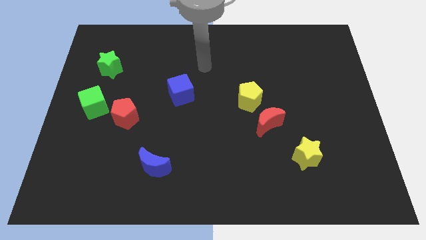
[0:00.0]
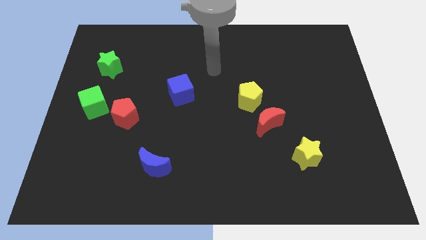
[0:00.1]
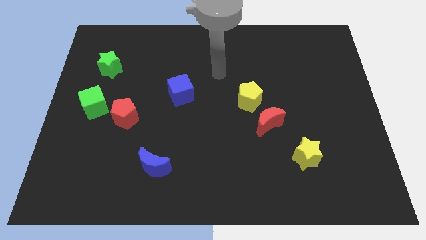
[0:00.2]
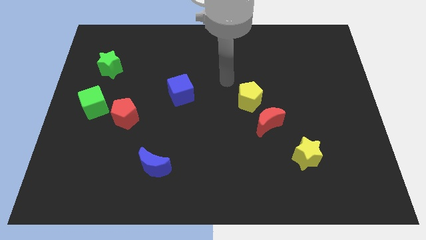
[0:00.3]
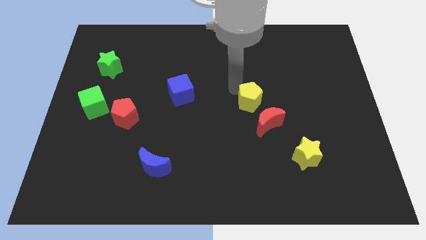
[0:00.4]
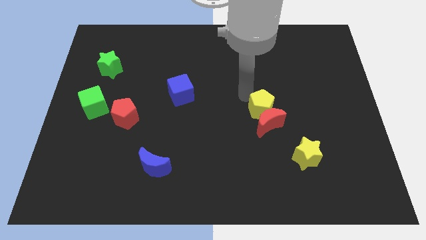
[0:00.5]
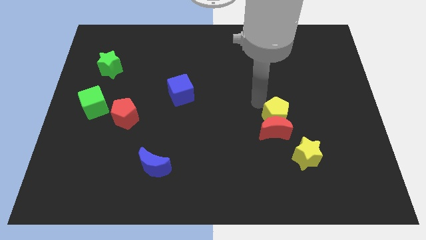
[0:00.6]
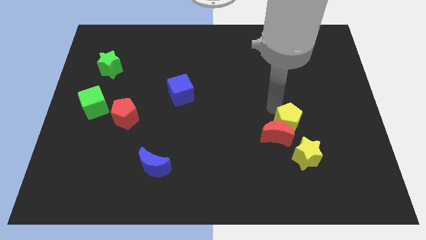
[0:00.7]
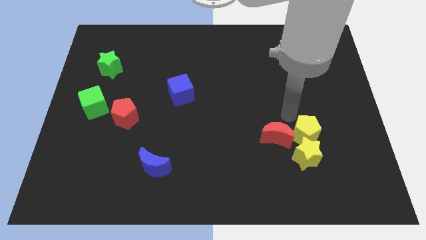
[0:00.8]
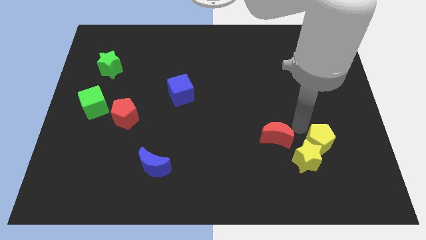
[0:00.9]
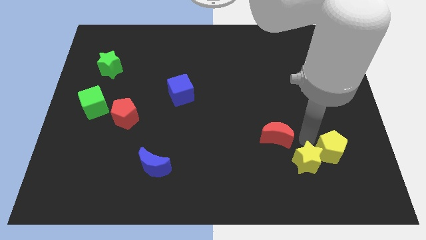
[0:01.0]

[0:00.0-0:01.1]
pull the red moon apart from the yellow pentagon

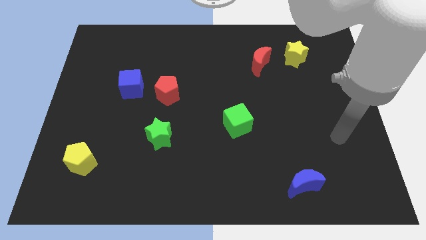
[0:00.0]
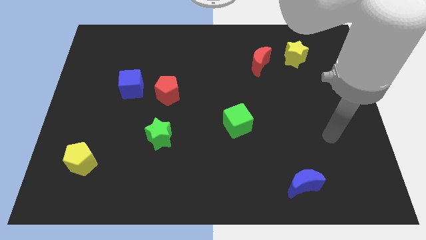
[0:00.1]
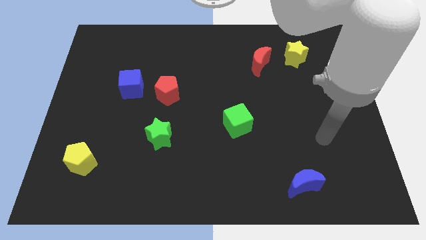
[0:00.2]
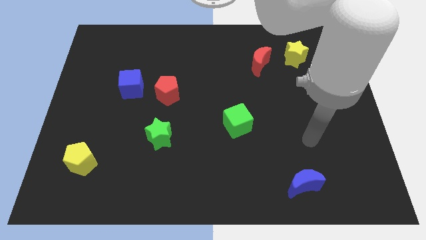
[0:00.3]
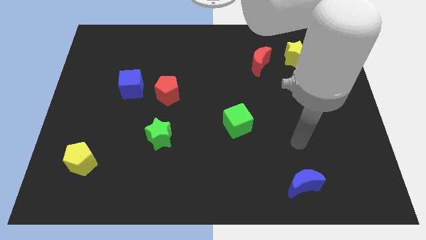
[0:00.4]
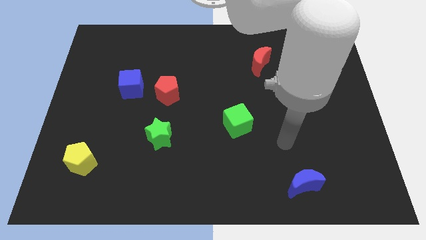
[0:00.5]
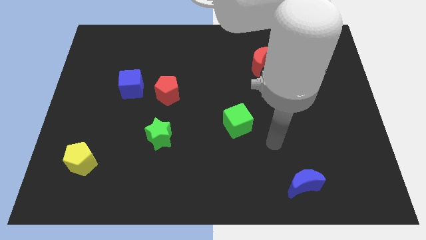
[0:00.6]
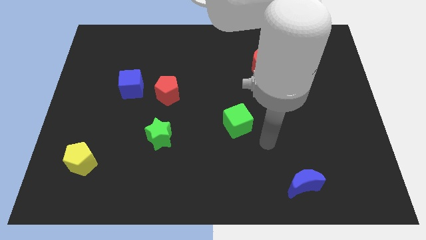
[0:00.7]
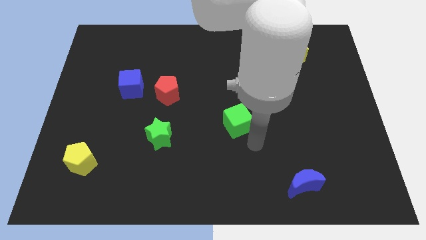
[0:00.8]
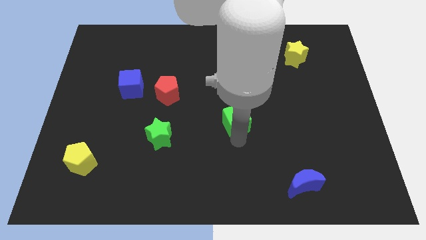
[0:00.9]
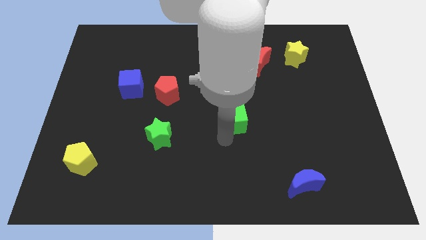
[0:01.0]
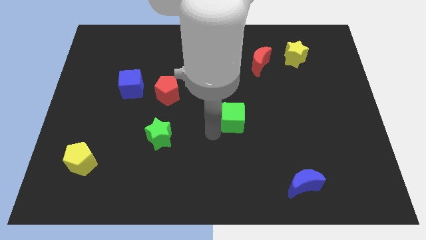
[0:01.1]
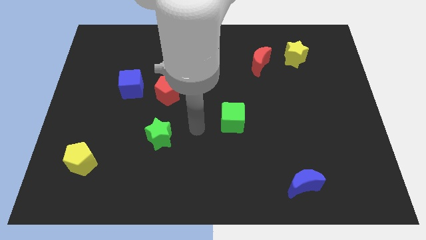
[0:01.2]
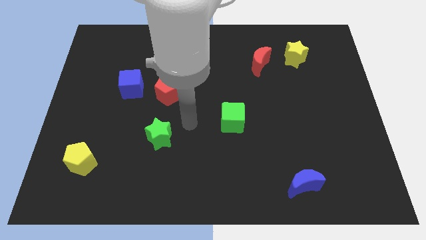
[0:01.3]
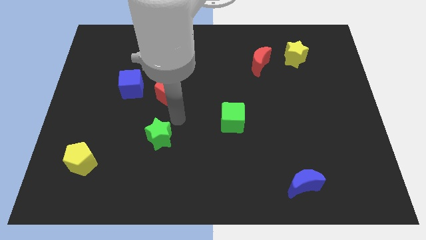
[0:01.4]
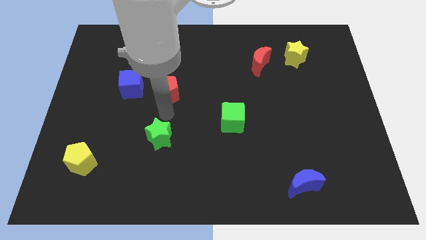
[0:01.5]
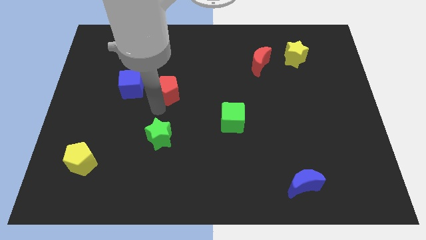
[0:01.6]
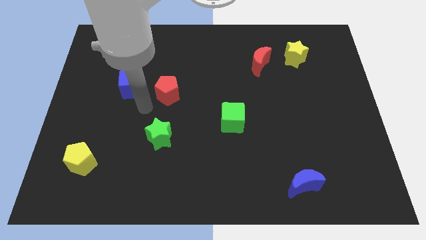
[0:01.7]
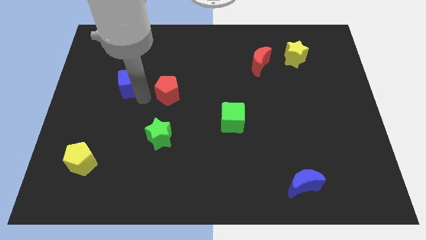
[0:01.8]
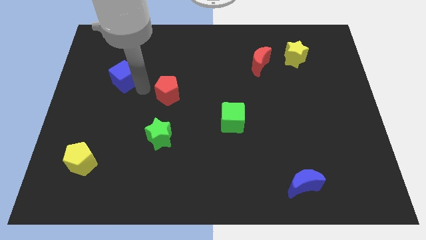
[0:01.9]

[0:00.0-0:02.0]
separate the red pentagon from the blue cube

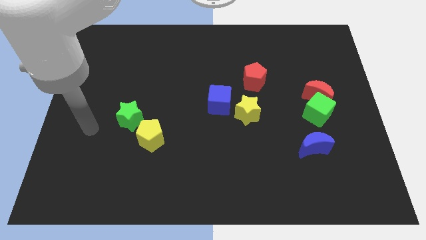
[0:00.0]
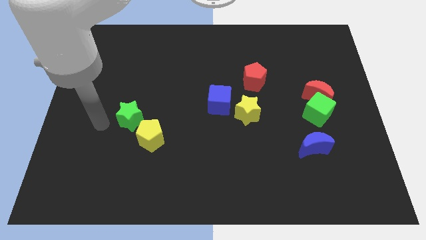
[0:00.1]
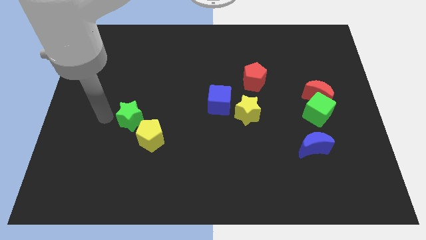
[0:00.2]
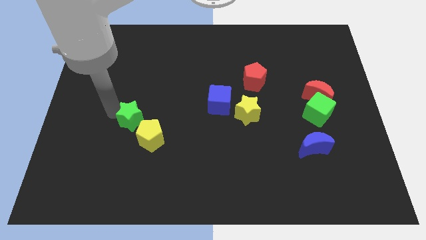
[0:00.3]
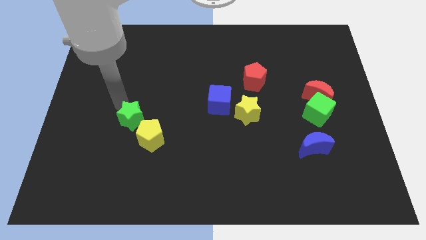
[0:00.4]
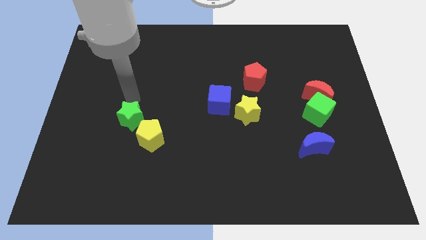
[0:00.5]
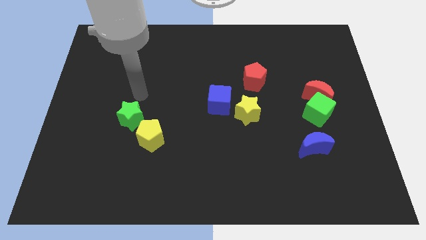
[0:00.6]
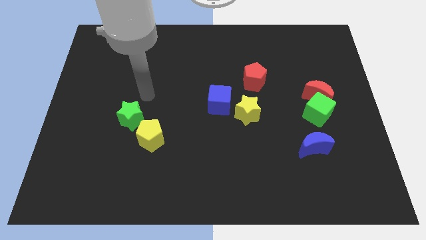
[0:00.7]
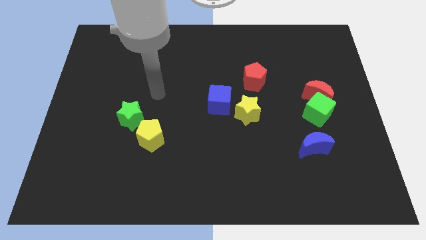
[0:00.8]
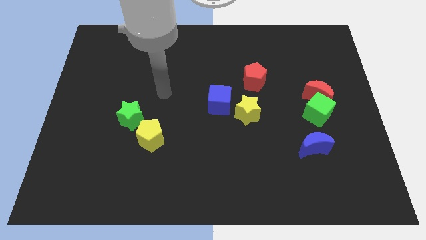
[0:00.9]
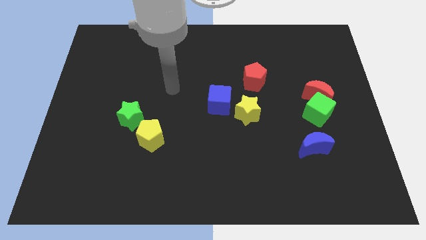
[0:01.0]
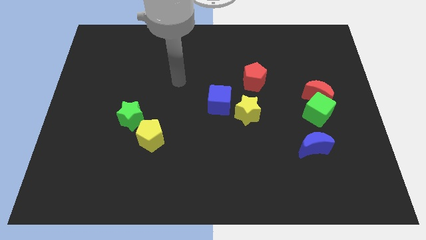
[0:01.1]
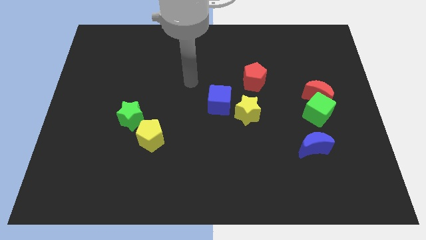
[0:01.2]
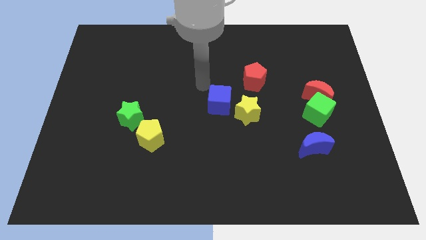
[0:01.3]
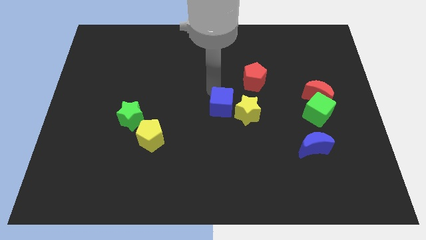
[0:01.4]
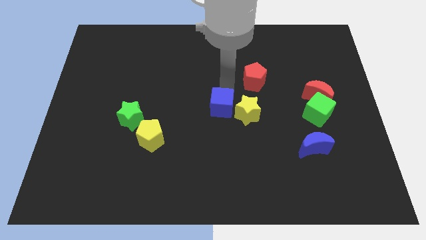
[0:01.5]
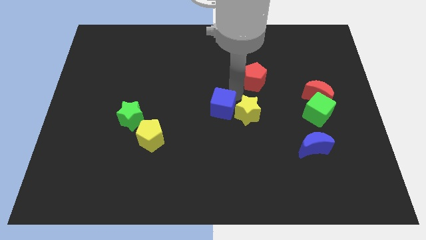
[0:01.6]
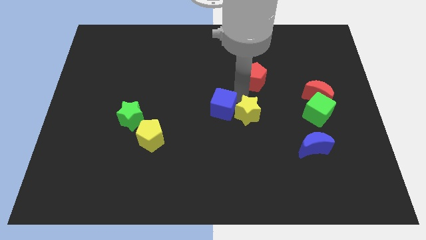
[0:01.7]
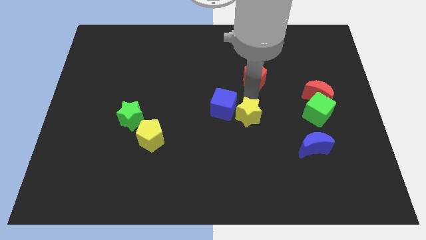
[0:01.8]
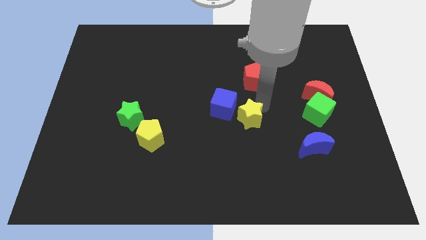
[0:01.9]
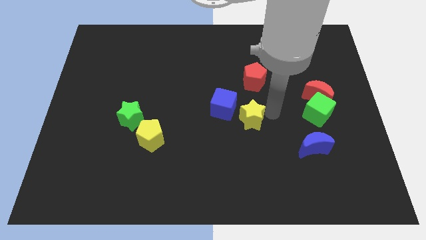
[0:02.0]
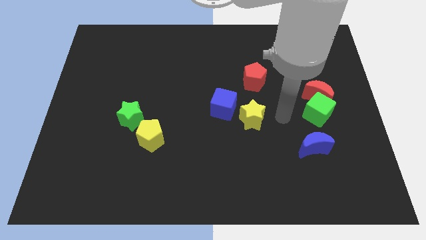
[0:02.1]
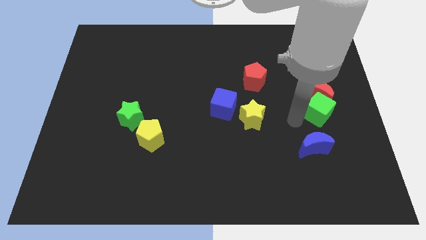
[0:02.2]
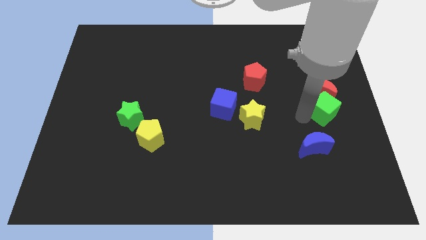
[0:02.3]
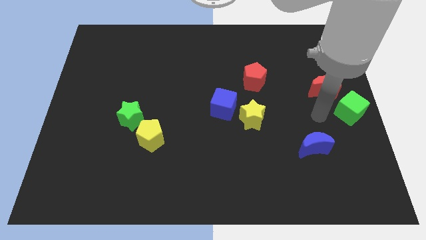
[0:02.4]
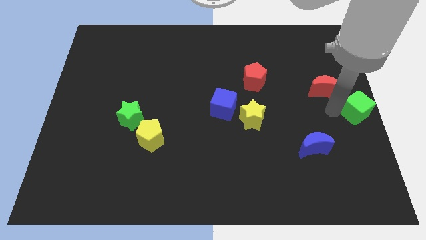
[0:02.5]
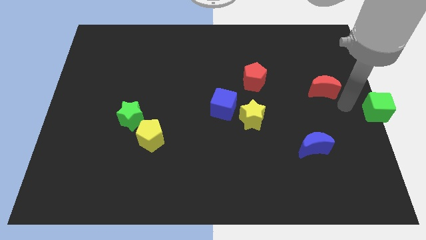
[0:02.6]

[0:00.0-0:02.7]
pull the red moon apart from the green cube

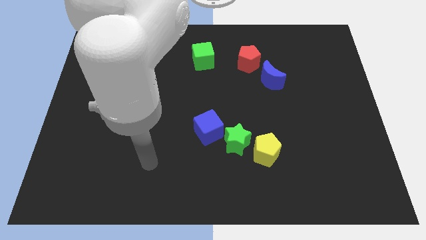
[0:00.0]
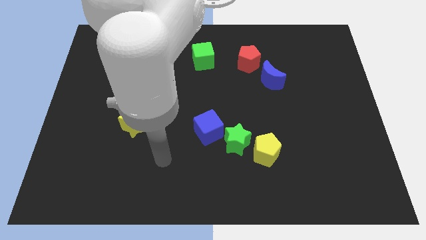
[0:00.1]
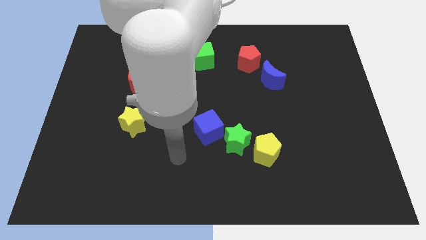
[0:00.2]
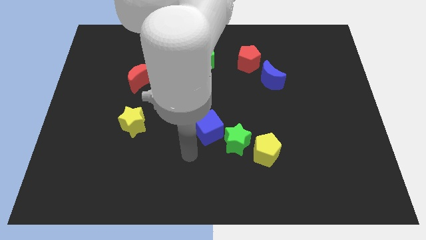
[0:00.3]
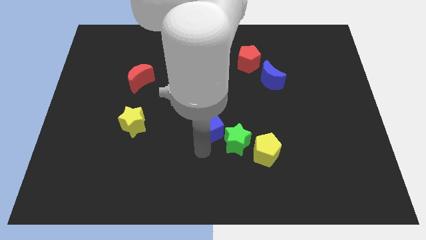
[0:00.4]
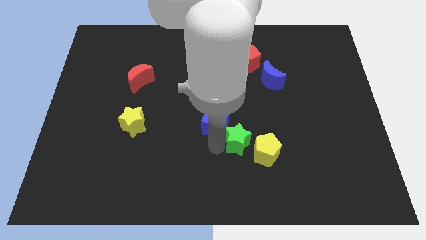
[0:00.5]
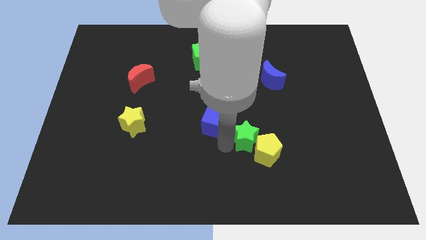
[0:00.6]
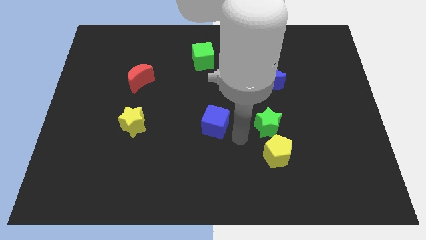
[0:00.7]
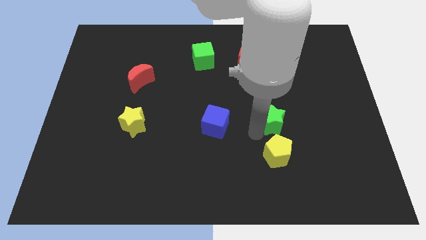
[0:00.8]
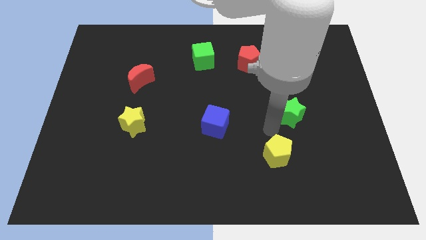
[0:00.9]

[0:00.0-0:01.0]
separate the yellow pentagon from the green star

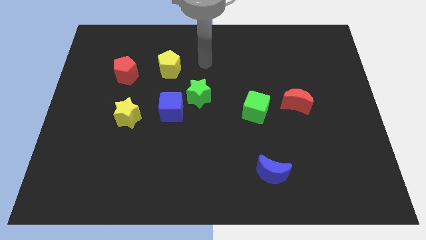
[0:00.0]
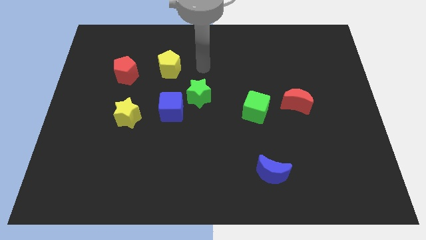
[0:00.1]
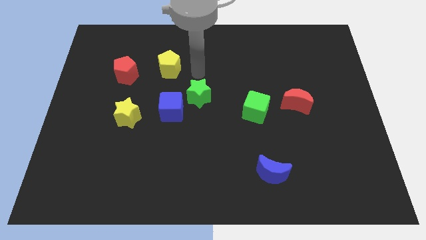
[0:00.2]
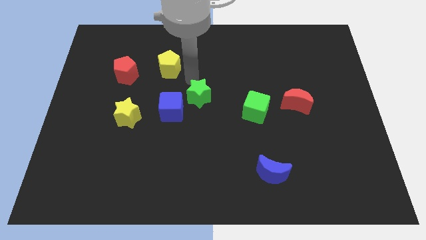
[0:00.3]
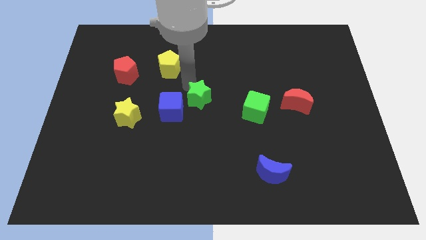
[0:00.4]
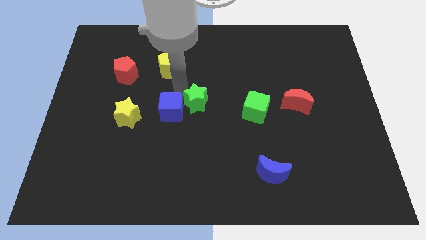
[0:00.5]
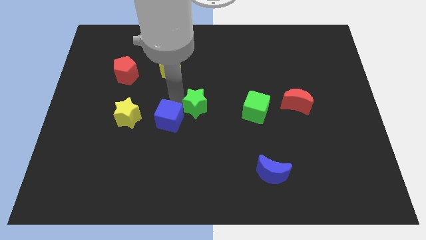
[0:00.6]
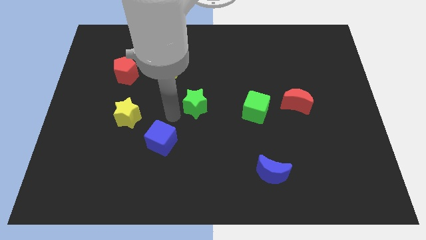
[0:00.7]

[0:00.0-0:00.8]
separate the green star from the blue cube

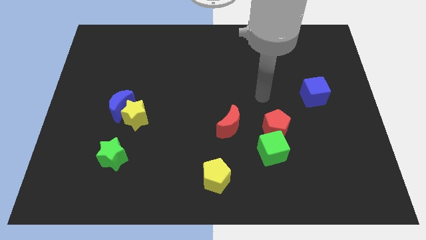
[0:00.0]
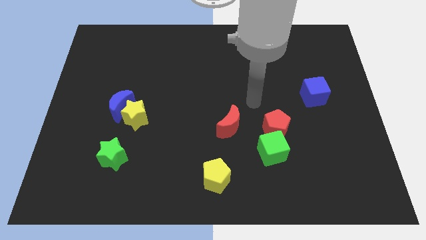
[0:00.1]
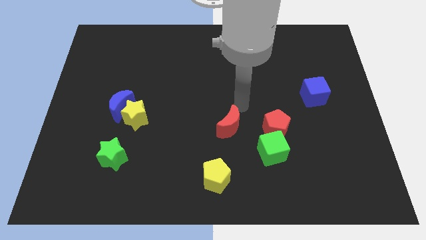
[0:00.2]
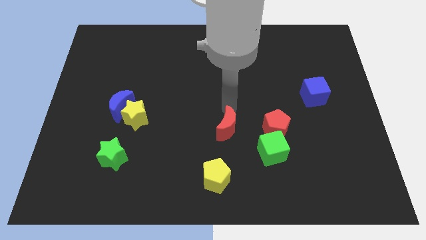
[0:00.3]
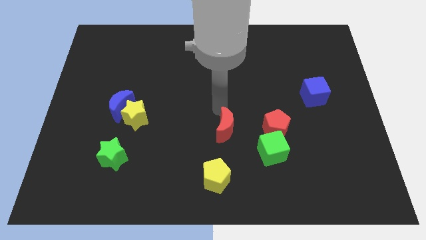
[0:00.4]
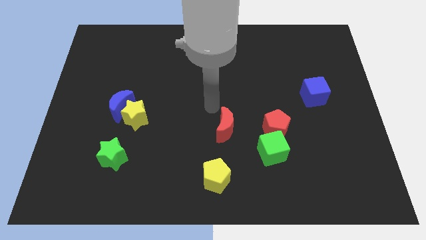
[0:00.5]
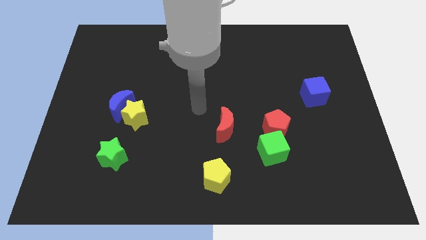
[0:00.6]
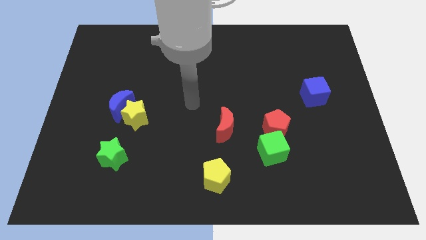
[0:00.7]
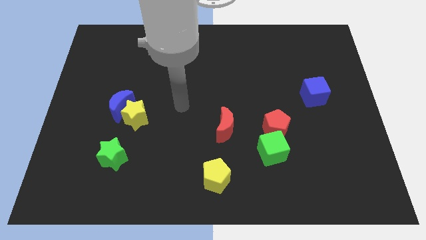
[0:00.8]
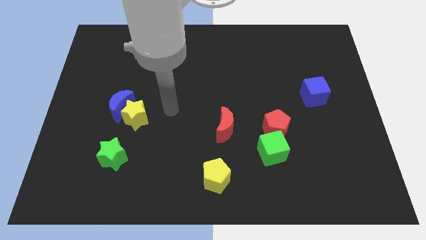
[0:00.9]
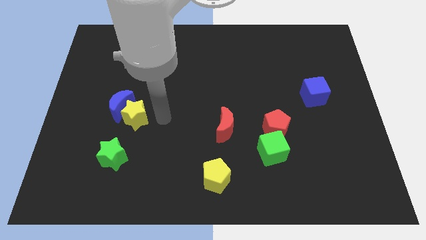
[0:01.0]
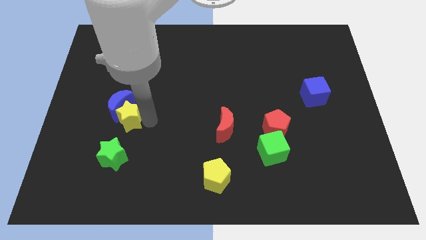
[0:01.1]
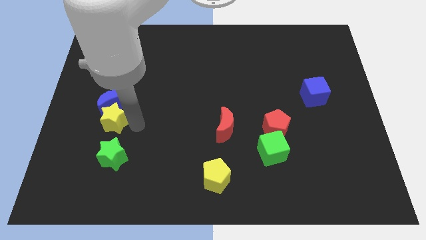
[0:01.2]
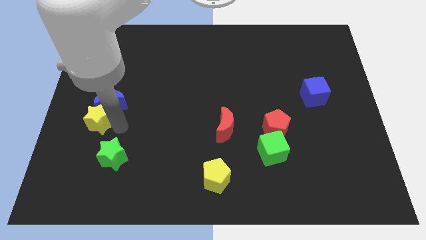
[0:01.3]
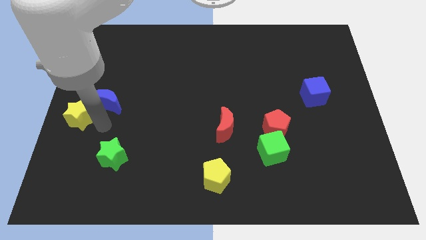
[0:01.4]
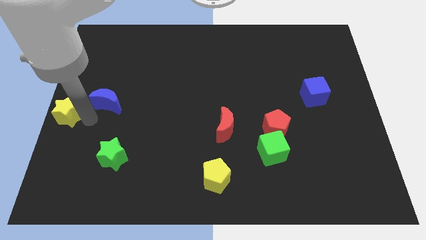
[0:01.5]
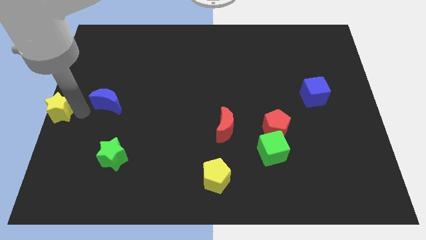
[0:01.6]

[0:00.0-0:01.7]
move the blue moon away from the yellow star

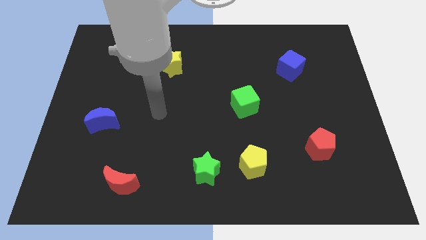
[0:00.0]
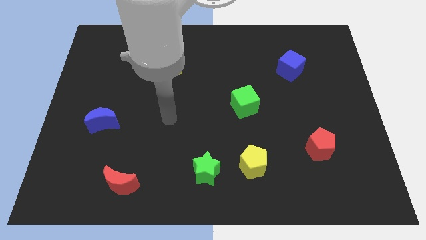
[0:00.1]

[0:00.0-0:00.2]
pull the green star apart from the yellow pentagon
